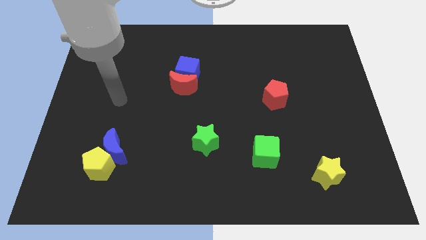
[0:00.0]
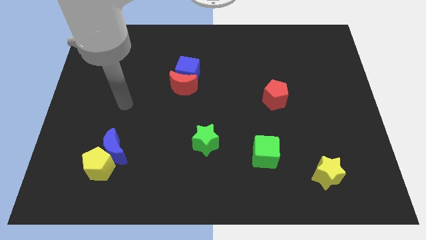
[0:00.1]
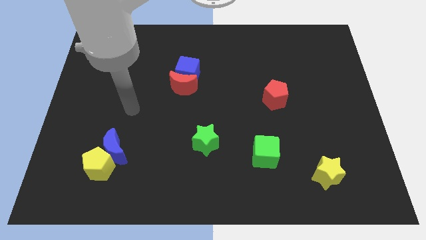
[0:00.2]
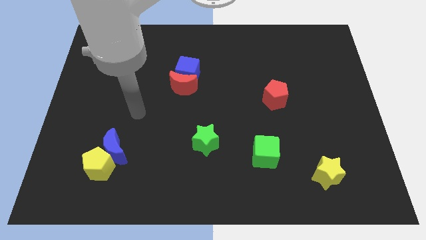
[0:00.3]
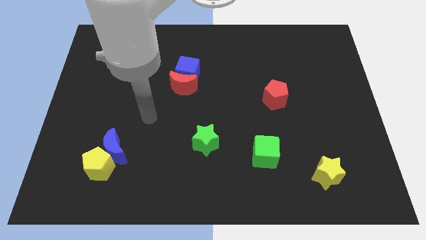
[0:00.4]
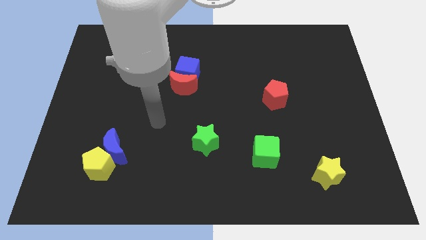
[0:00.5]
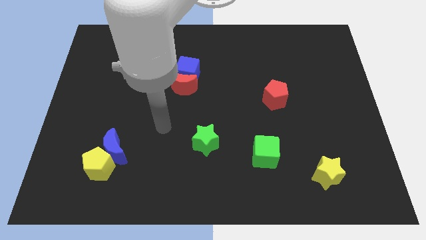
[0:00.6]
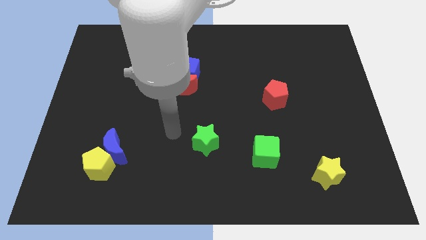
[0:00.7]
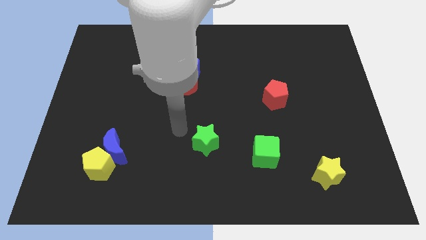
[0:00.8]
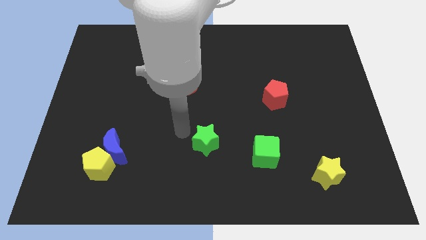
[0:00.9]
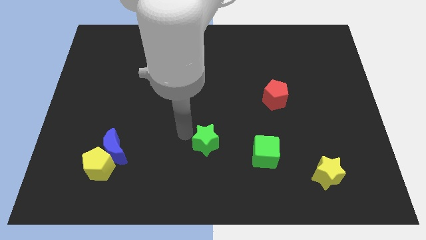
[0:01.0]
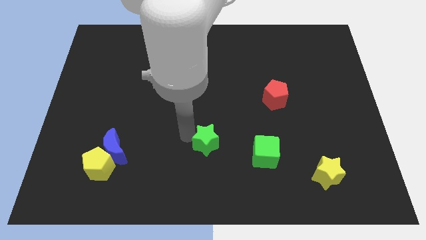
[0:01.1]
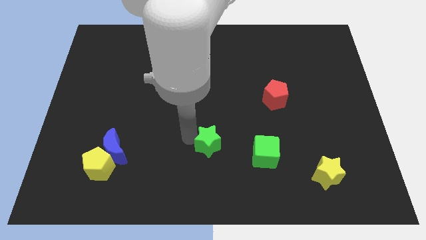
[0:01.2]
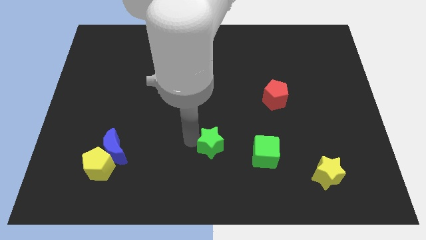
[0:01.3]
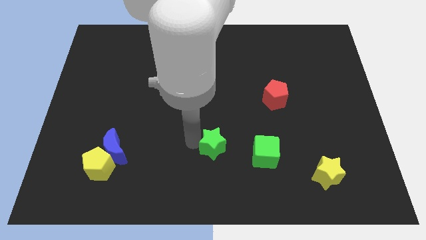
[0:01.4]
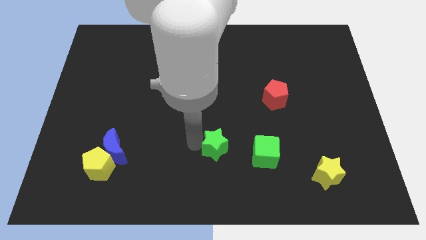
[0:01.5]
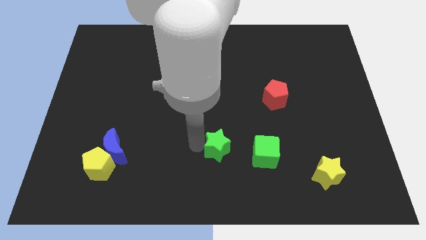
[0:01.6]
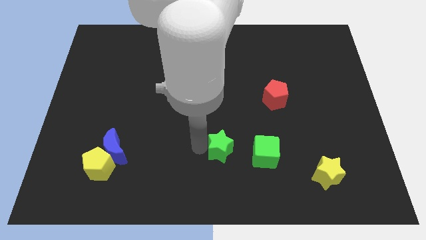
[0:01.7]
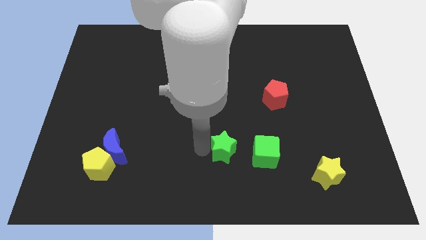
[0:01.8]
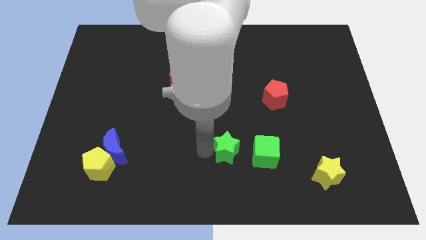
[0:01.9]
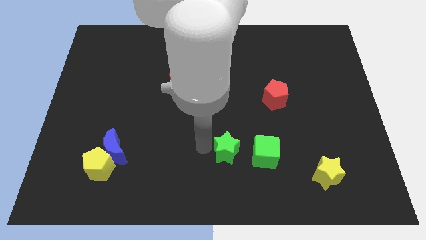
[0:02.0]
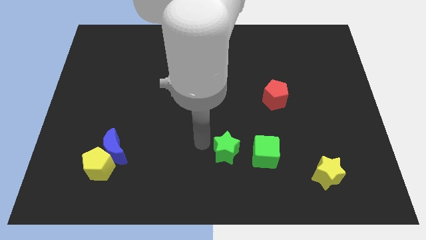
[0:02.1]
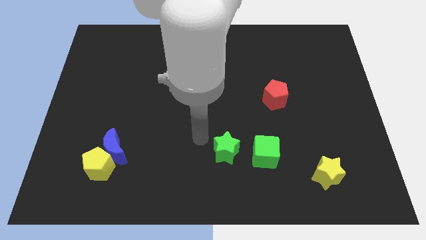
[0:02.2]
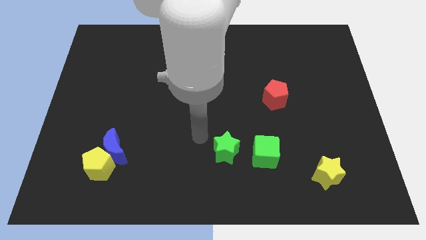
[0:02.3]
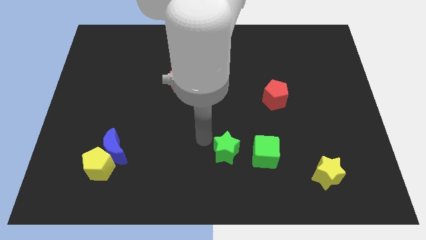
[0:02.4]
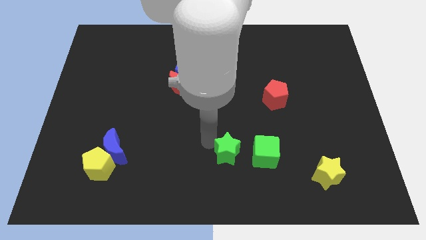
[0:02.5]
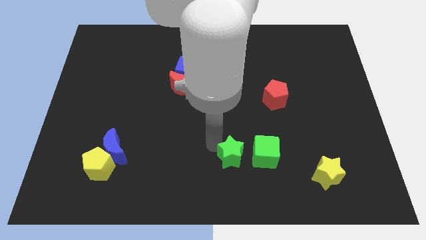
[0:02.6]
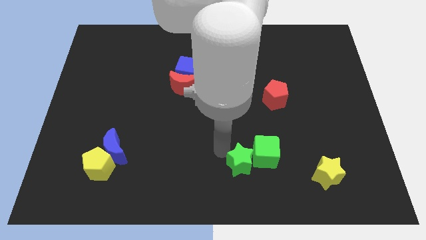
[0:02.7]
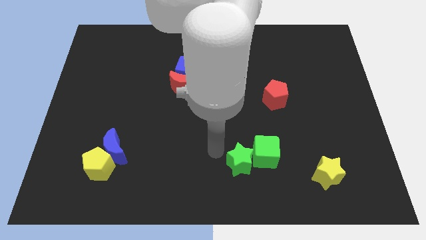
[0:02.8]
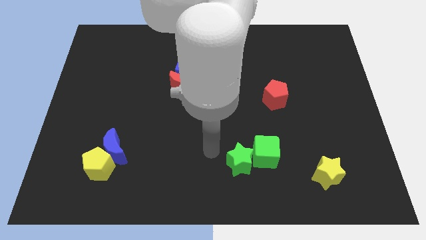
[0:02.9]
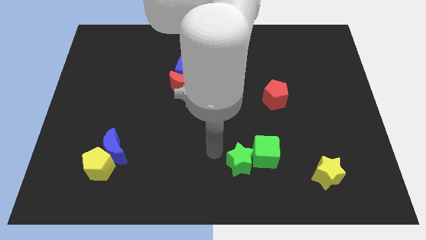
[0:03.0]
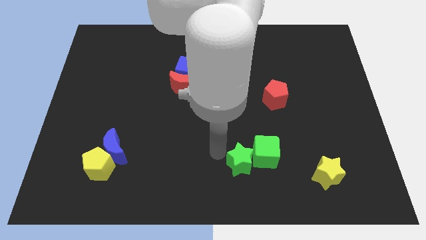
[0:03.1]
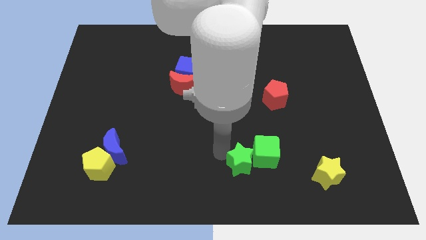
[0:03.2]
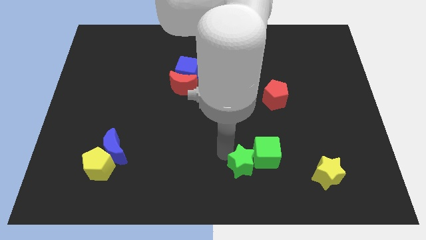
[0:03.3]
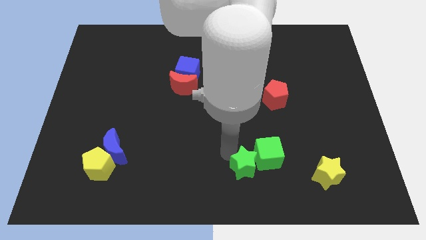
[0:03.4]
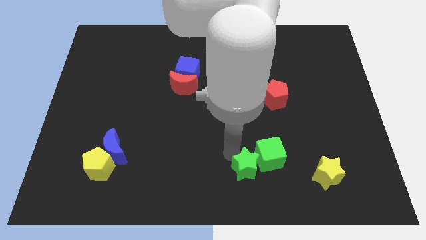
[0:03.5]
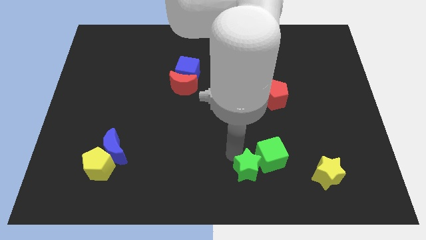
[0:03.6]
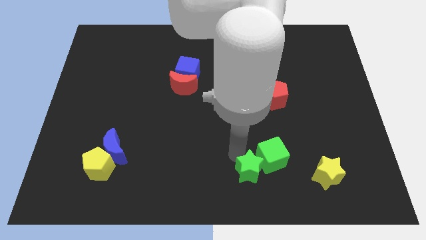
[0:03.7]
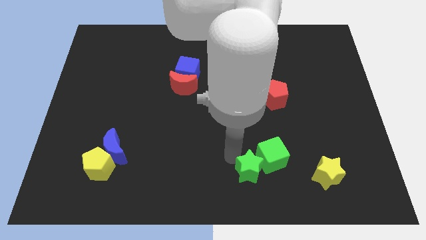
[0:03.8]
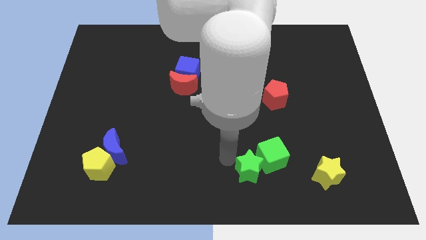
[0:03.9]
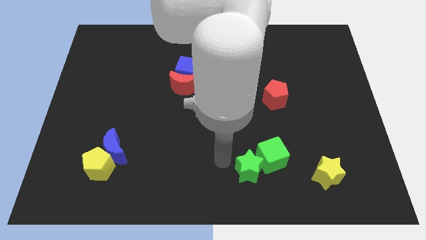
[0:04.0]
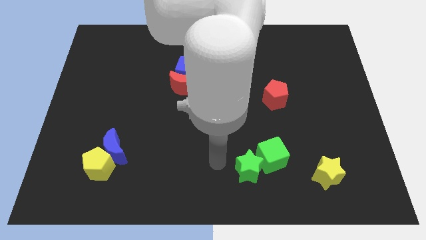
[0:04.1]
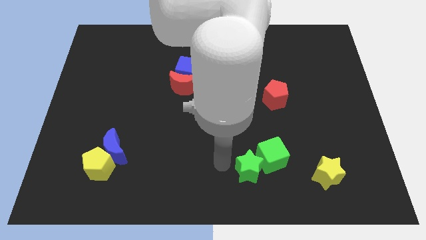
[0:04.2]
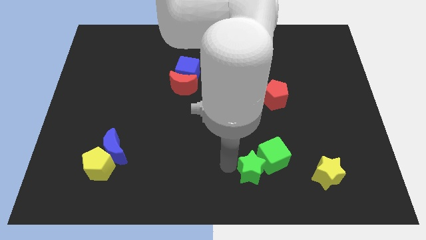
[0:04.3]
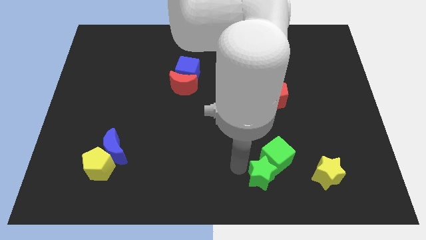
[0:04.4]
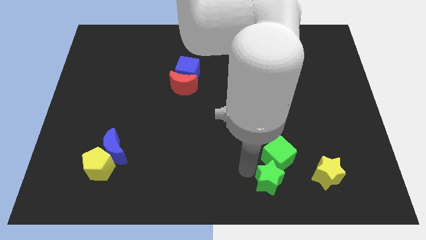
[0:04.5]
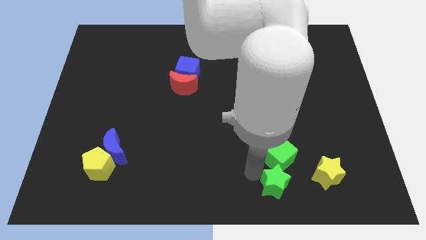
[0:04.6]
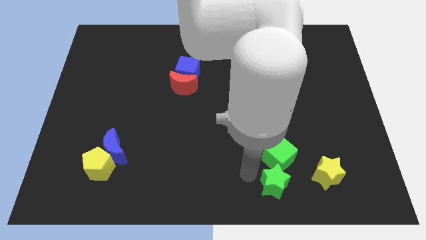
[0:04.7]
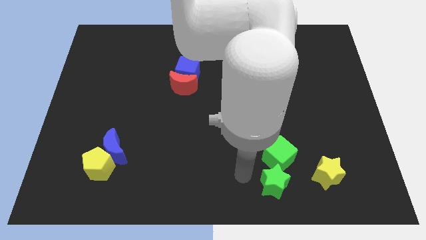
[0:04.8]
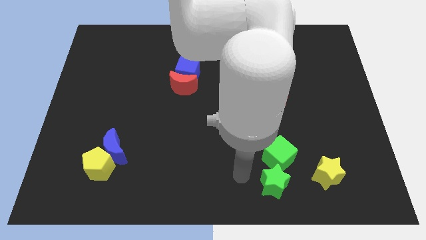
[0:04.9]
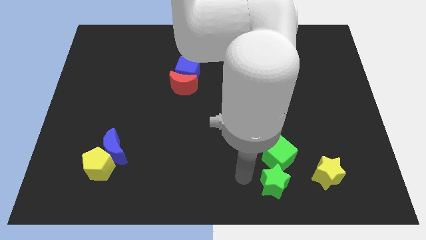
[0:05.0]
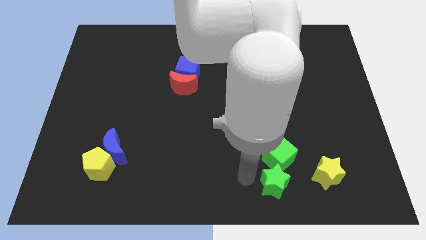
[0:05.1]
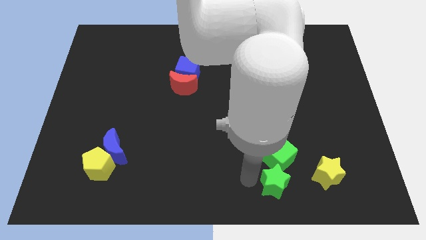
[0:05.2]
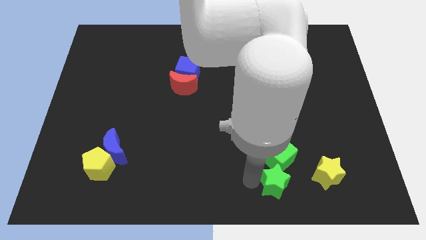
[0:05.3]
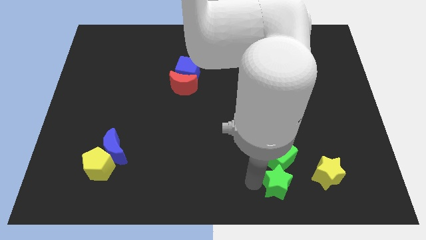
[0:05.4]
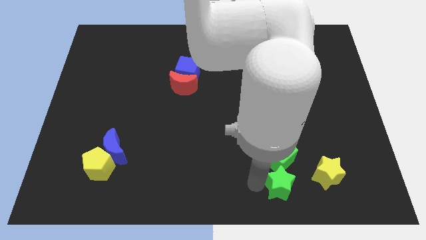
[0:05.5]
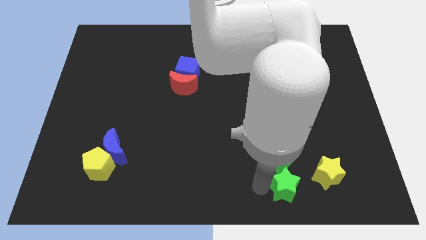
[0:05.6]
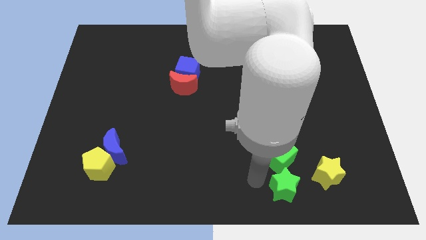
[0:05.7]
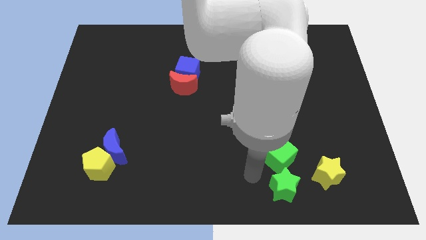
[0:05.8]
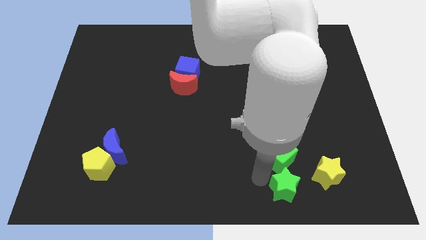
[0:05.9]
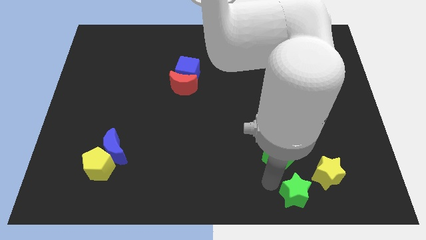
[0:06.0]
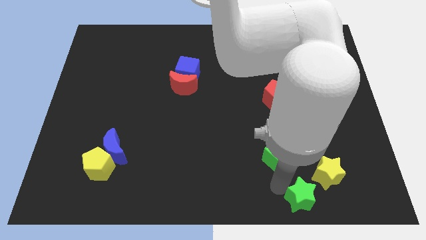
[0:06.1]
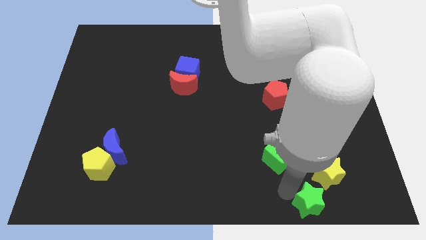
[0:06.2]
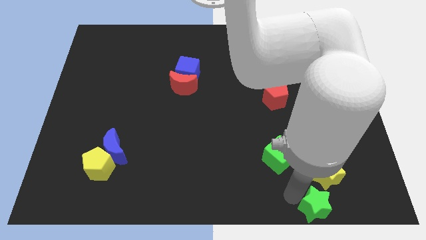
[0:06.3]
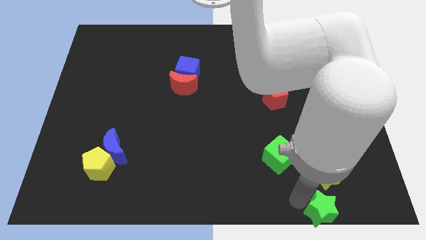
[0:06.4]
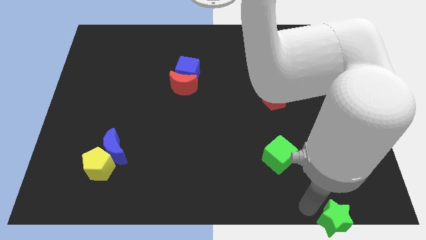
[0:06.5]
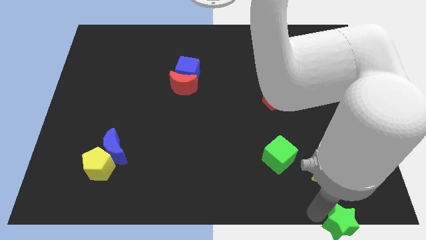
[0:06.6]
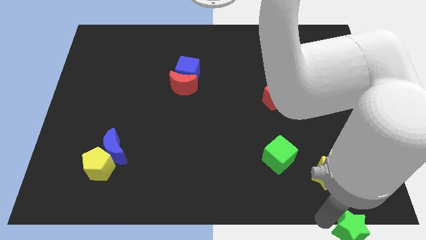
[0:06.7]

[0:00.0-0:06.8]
move the green star to the lower right corner

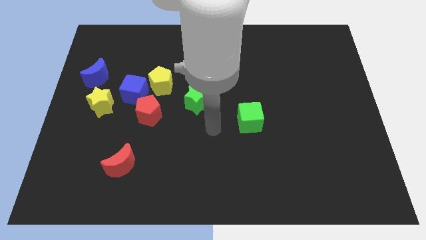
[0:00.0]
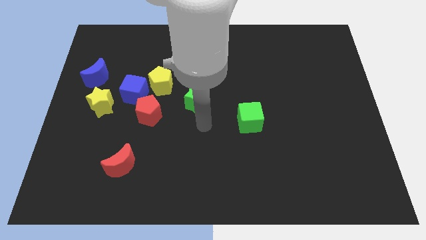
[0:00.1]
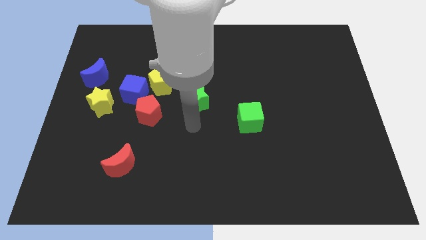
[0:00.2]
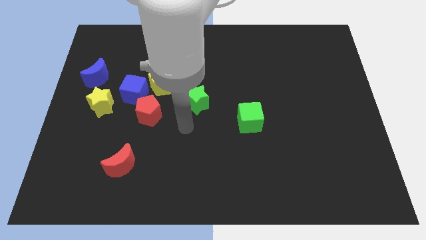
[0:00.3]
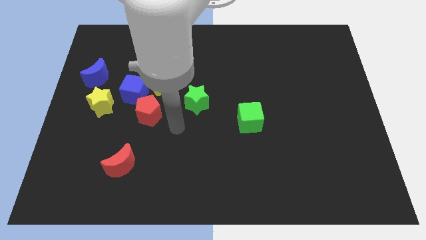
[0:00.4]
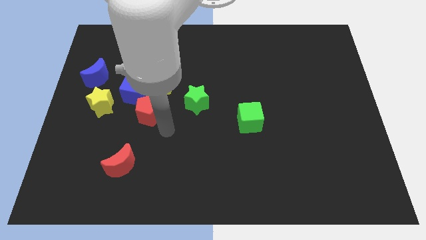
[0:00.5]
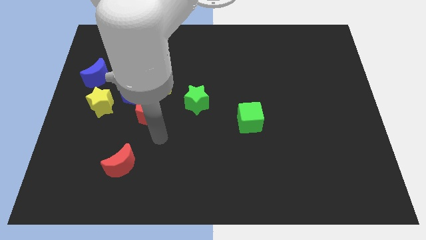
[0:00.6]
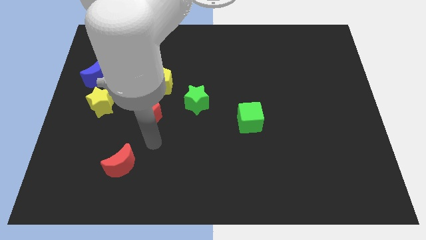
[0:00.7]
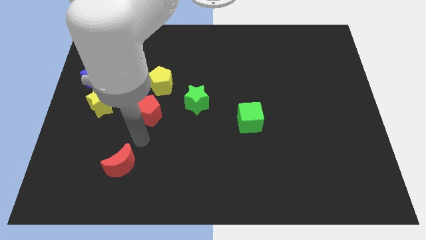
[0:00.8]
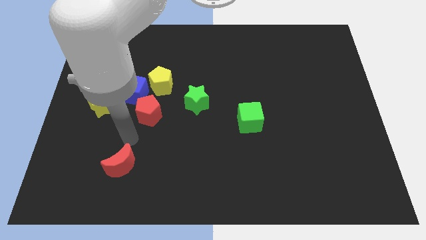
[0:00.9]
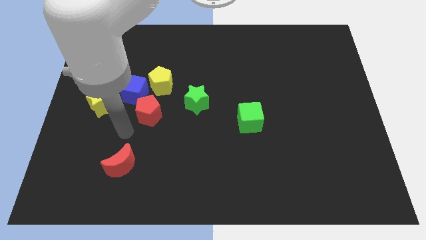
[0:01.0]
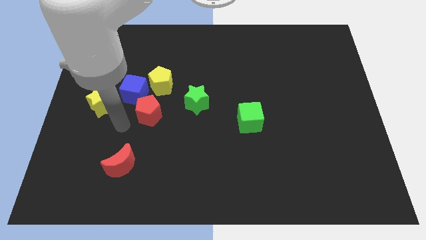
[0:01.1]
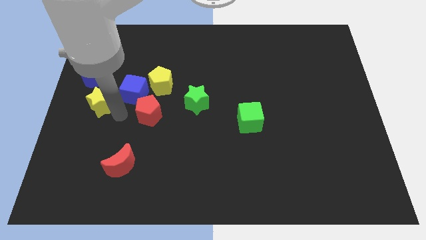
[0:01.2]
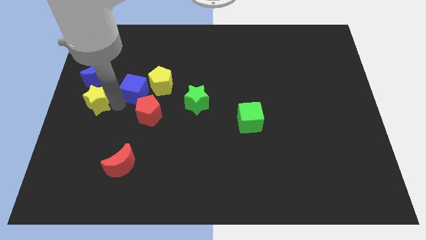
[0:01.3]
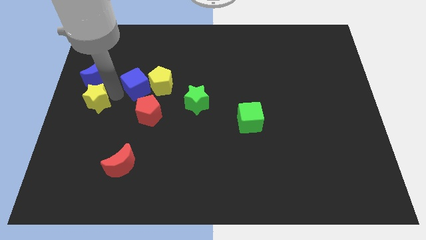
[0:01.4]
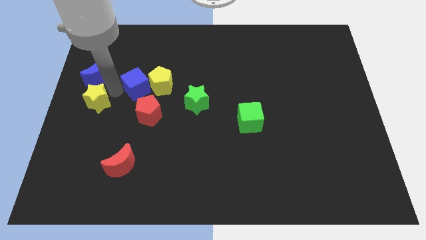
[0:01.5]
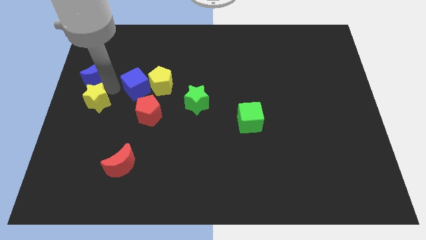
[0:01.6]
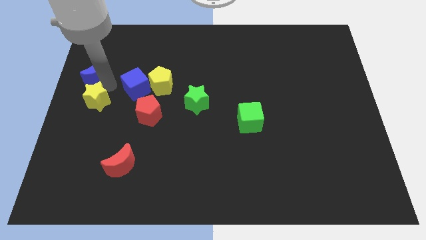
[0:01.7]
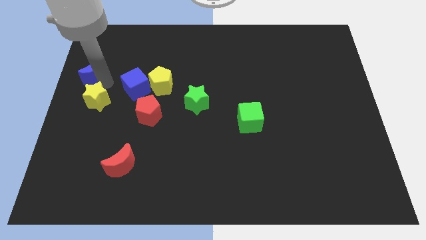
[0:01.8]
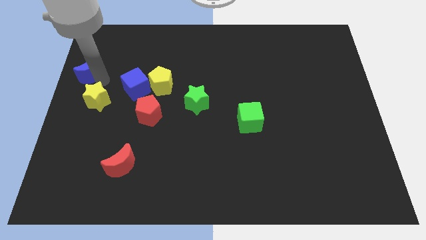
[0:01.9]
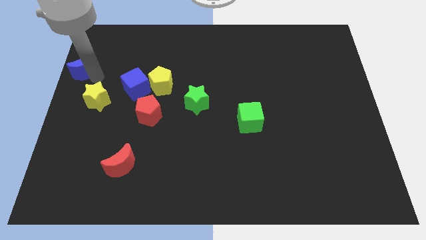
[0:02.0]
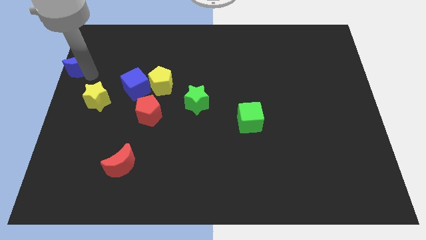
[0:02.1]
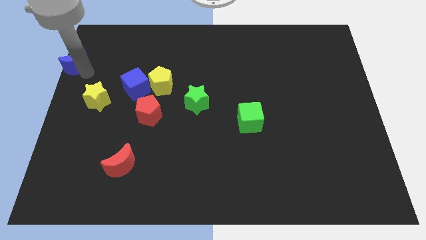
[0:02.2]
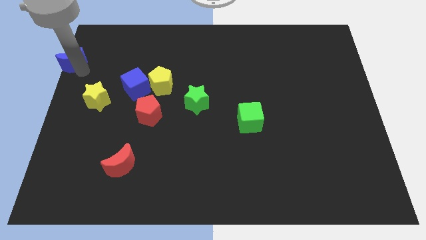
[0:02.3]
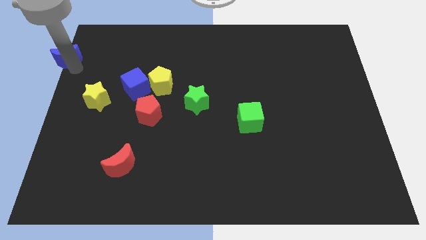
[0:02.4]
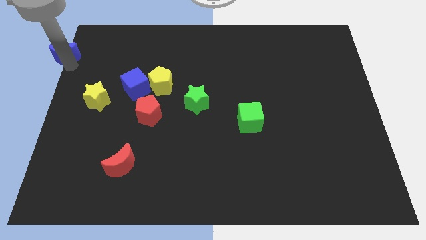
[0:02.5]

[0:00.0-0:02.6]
push the blue moon to the top left of the board
